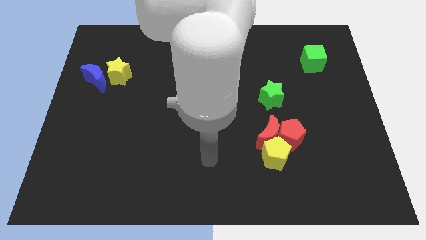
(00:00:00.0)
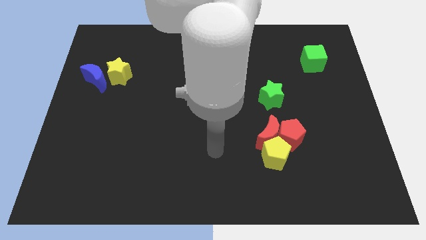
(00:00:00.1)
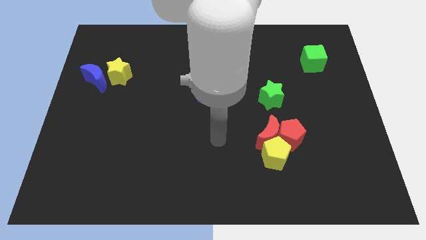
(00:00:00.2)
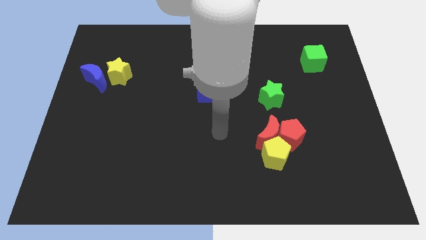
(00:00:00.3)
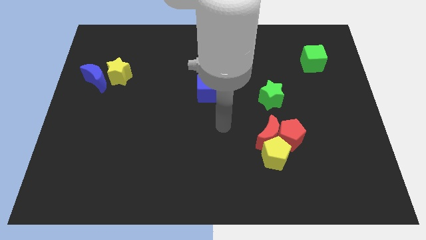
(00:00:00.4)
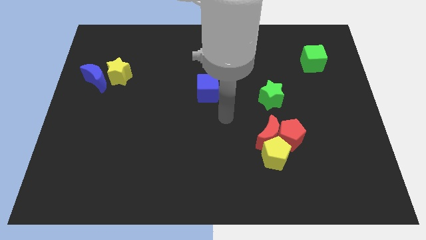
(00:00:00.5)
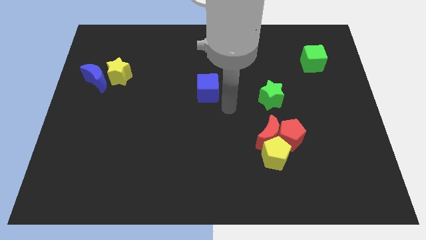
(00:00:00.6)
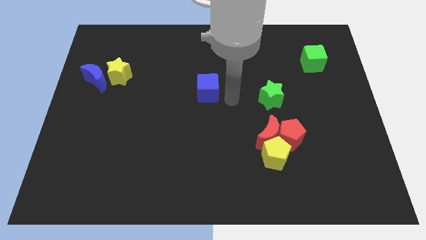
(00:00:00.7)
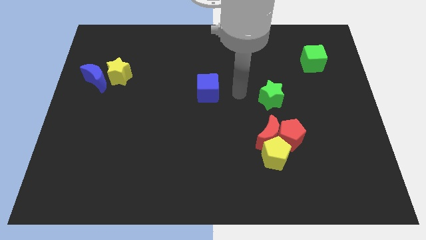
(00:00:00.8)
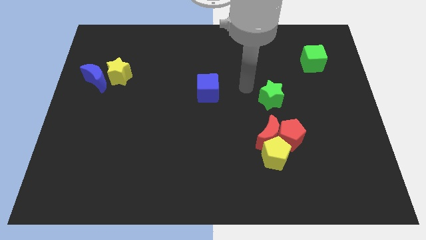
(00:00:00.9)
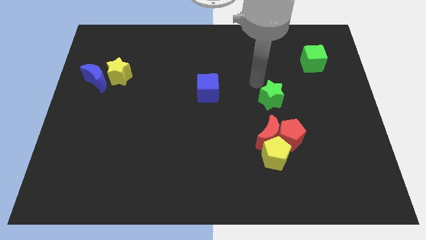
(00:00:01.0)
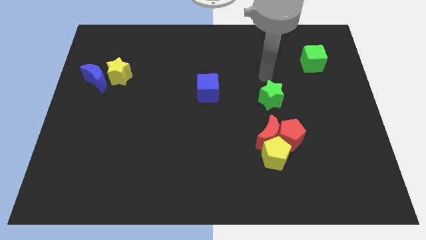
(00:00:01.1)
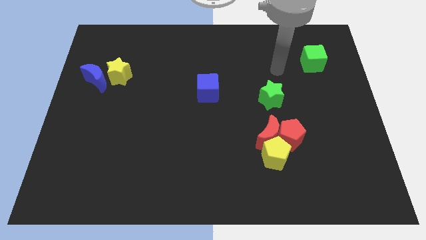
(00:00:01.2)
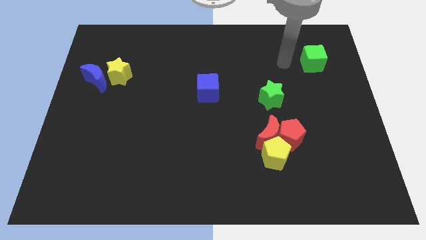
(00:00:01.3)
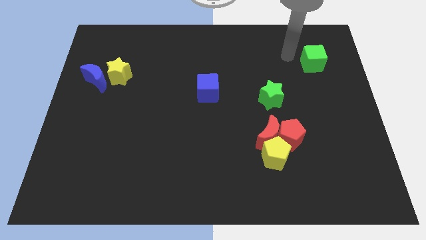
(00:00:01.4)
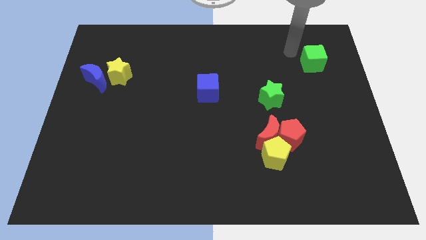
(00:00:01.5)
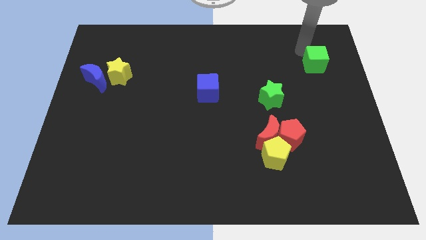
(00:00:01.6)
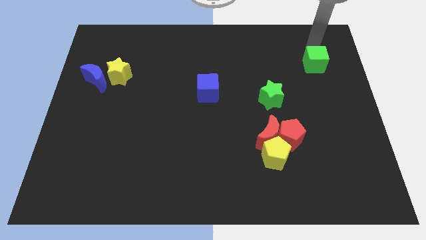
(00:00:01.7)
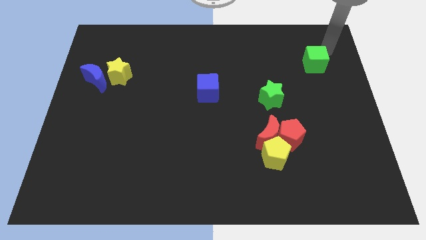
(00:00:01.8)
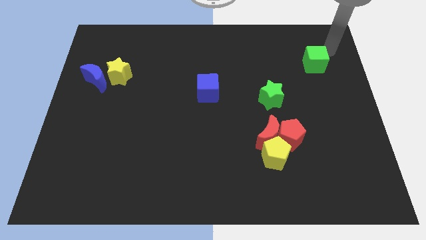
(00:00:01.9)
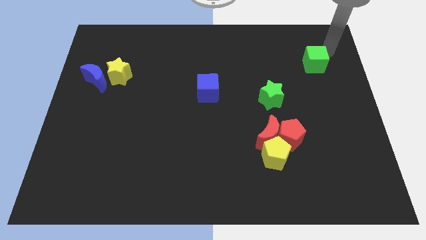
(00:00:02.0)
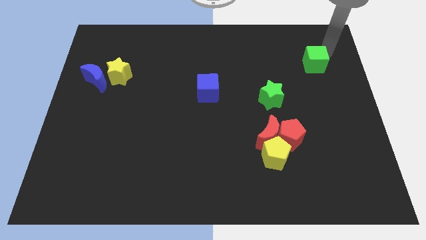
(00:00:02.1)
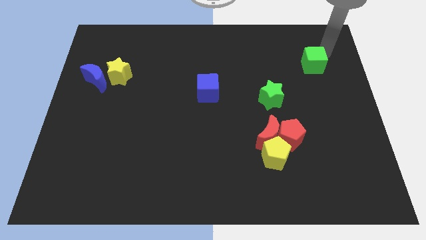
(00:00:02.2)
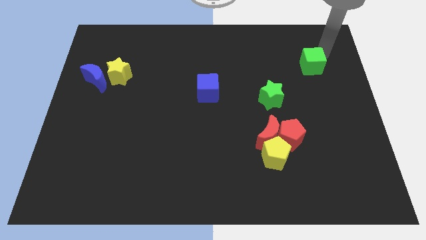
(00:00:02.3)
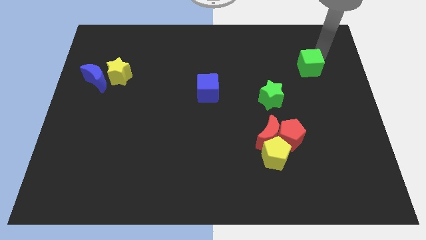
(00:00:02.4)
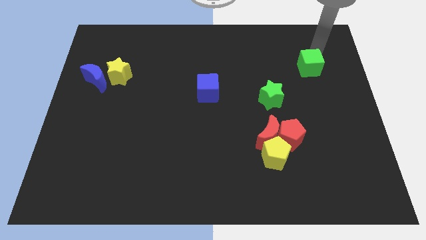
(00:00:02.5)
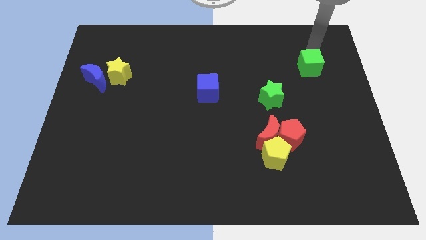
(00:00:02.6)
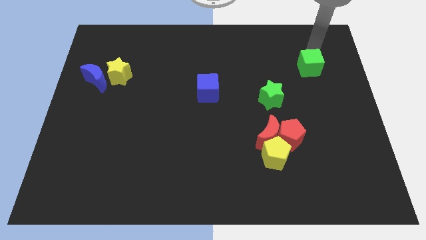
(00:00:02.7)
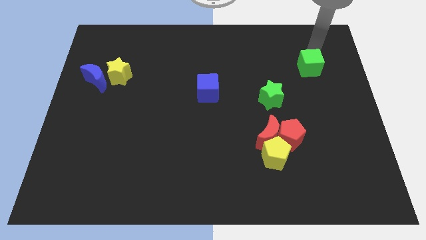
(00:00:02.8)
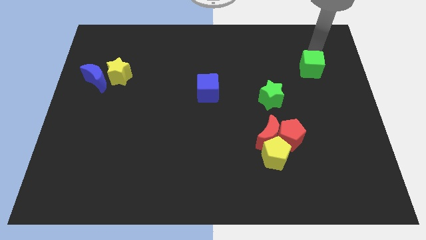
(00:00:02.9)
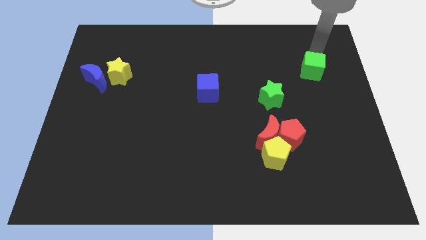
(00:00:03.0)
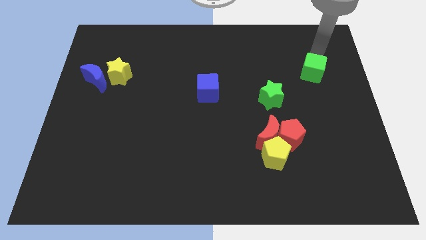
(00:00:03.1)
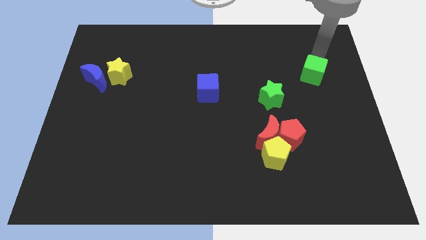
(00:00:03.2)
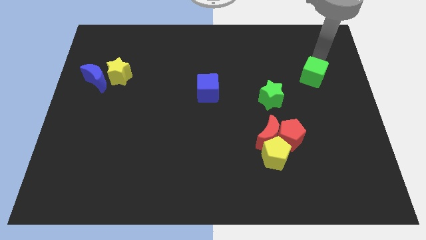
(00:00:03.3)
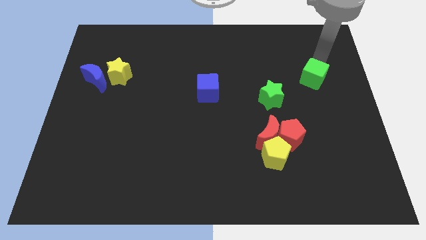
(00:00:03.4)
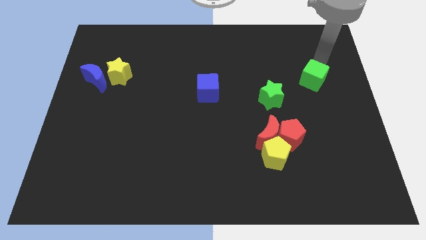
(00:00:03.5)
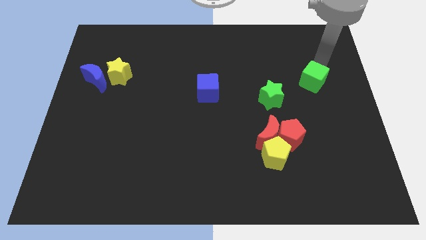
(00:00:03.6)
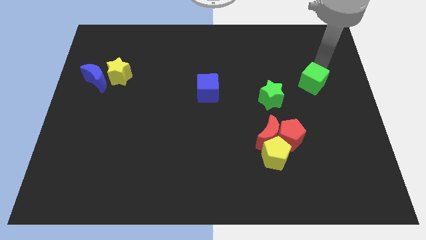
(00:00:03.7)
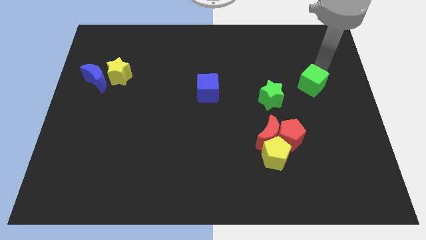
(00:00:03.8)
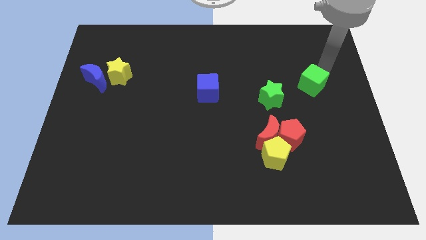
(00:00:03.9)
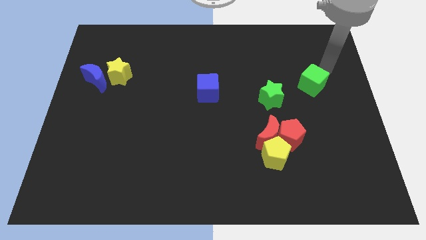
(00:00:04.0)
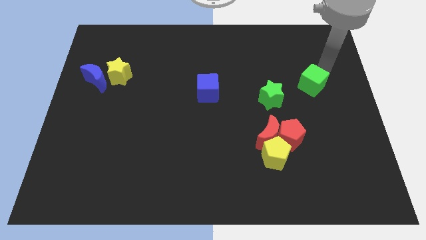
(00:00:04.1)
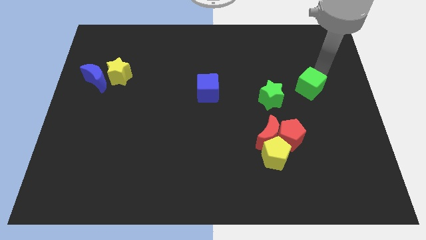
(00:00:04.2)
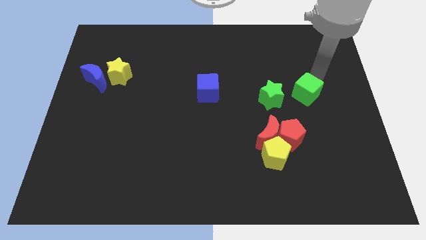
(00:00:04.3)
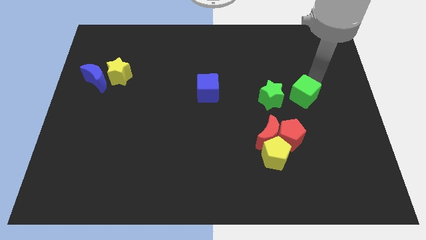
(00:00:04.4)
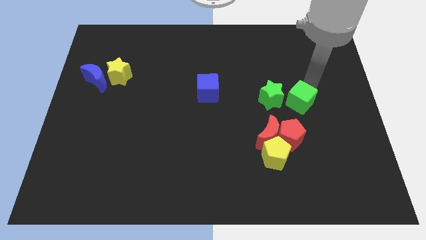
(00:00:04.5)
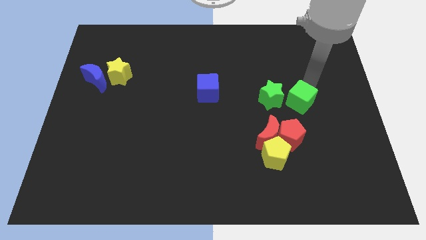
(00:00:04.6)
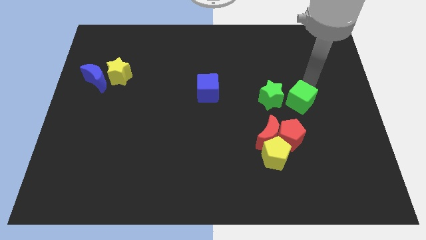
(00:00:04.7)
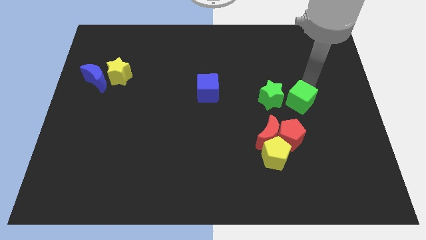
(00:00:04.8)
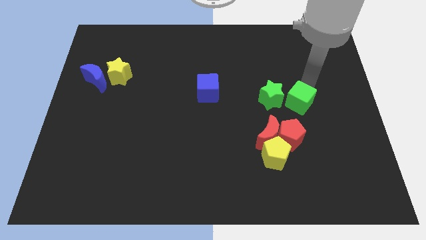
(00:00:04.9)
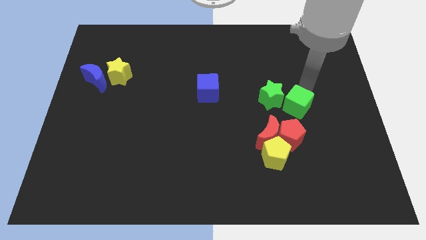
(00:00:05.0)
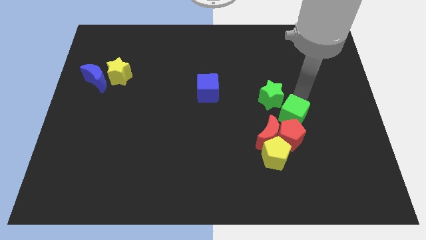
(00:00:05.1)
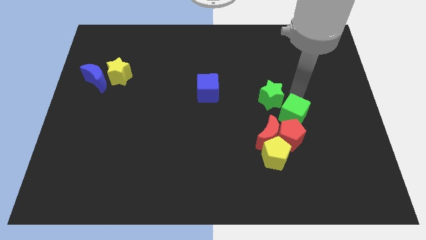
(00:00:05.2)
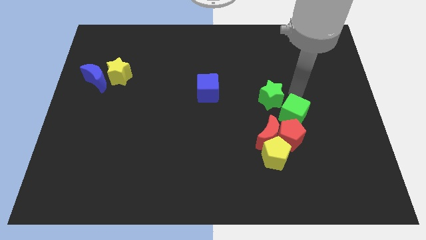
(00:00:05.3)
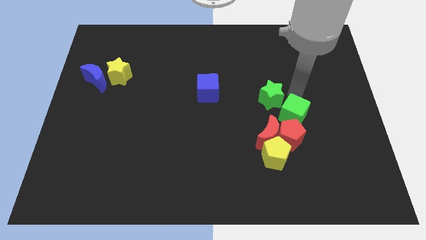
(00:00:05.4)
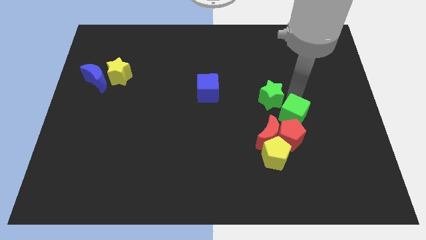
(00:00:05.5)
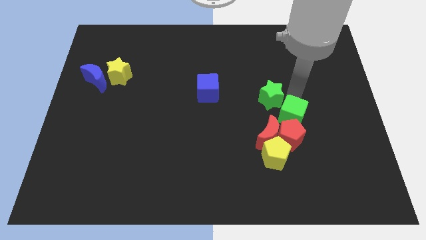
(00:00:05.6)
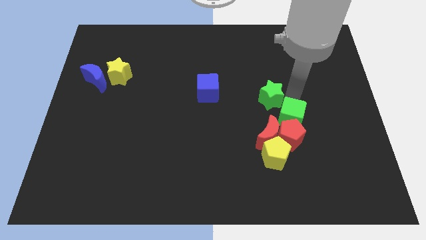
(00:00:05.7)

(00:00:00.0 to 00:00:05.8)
move the green cube to the red pentagon

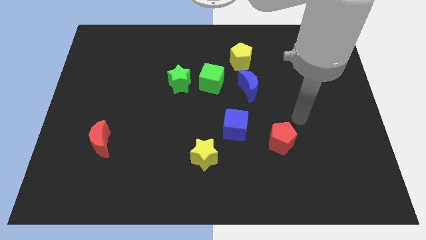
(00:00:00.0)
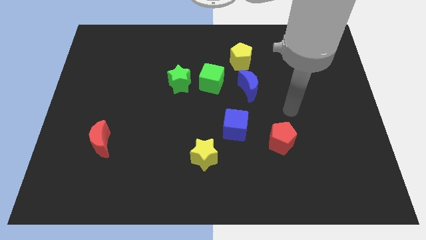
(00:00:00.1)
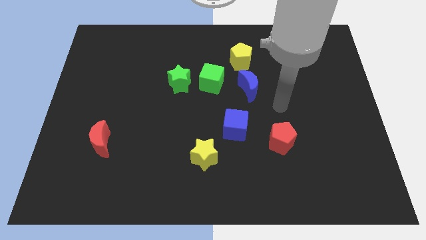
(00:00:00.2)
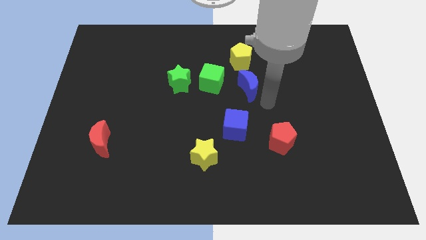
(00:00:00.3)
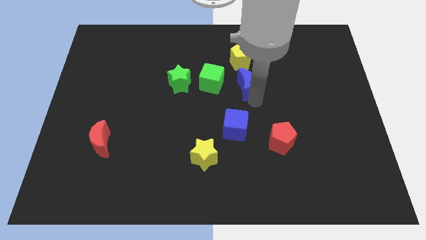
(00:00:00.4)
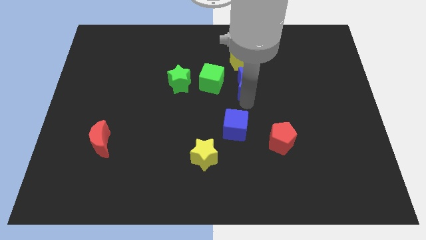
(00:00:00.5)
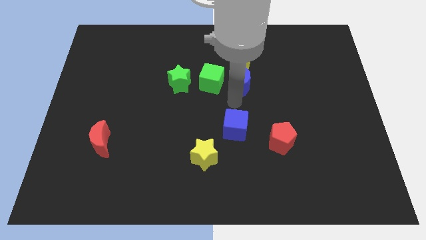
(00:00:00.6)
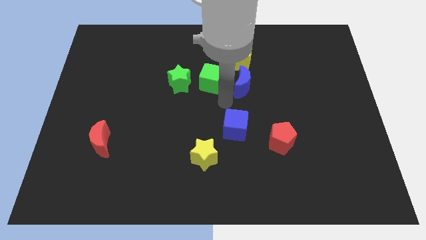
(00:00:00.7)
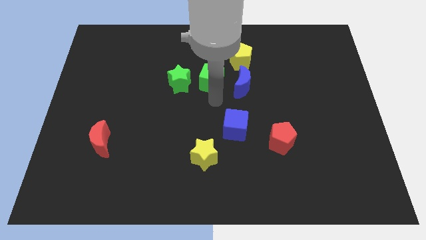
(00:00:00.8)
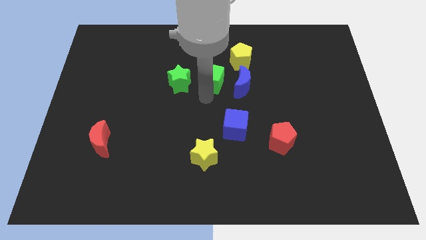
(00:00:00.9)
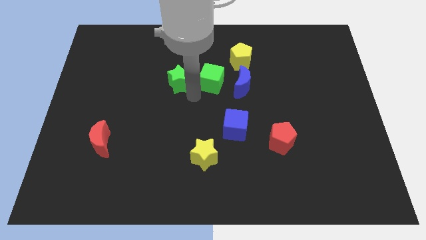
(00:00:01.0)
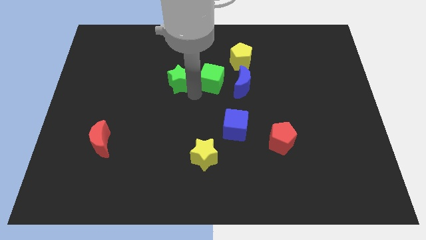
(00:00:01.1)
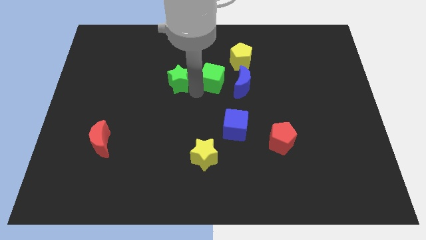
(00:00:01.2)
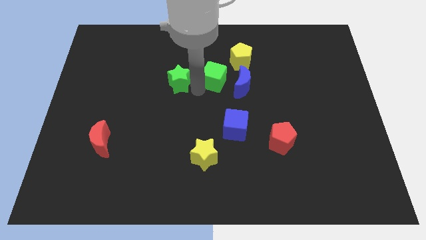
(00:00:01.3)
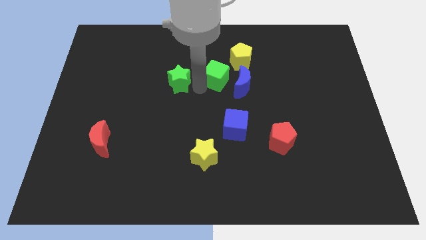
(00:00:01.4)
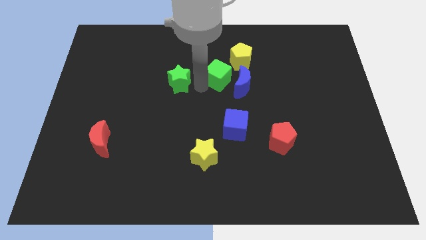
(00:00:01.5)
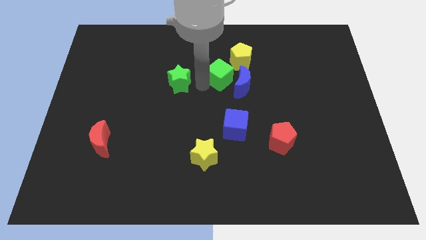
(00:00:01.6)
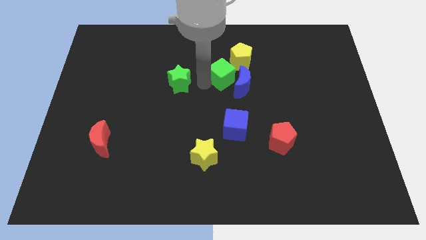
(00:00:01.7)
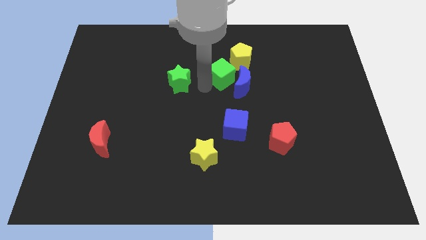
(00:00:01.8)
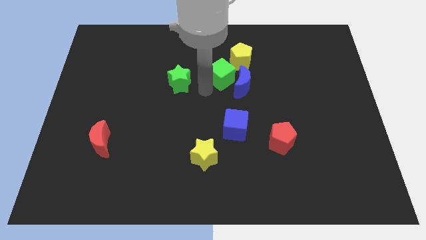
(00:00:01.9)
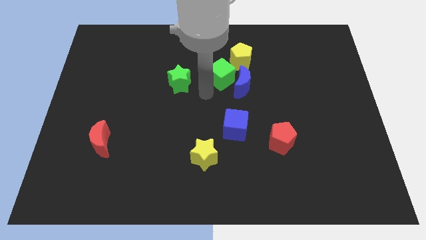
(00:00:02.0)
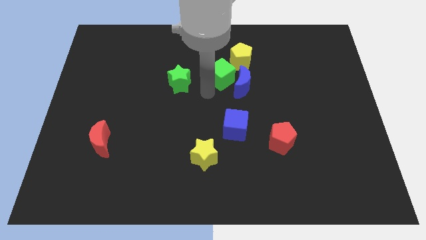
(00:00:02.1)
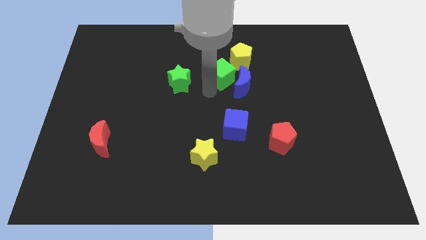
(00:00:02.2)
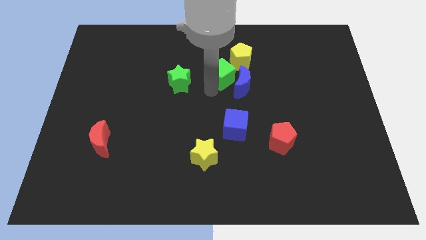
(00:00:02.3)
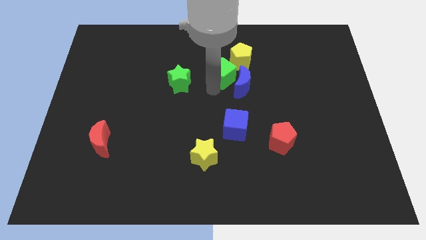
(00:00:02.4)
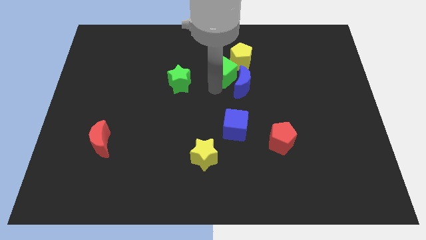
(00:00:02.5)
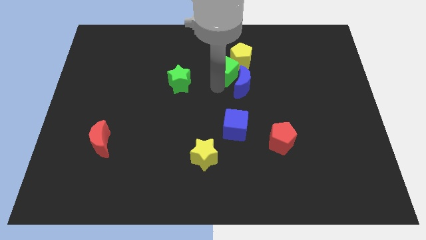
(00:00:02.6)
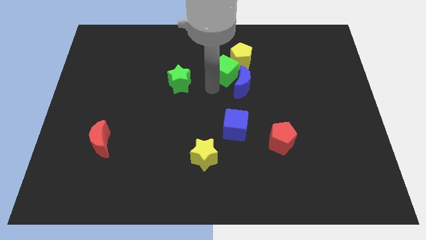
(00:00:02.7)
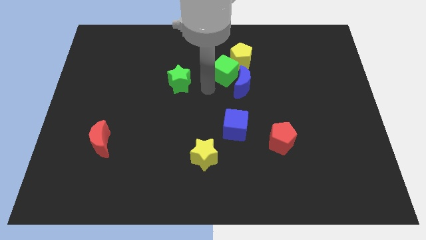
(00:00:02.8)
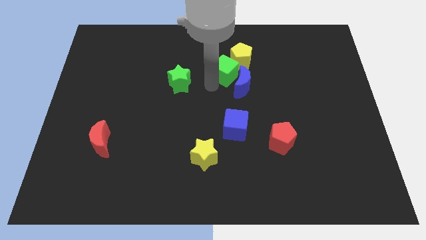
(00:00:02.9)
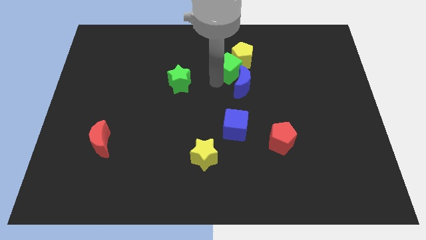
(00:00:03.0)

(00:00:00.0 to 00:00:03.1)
put the green cube to the yellow pentagon
